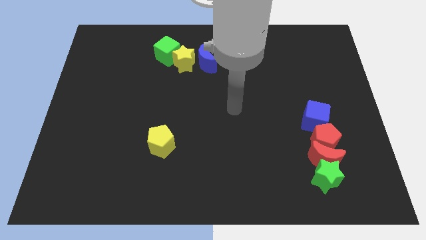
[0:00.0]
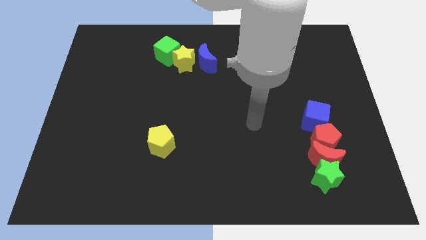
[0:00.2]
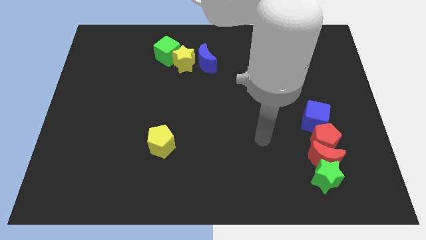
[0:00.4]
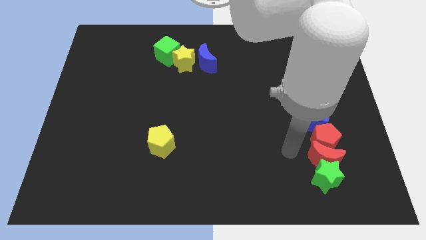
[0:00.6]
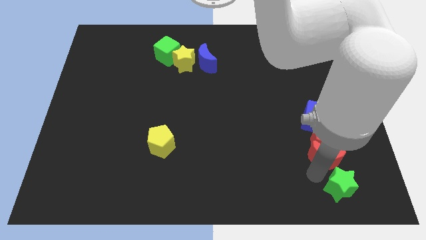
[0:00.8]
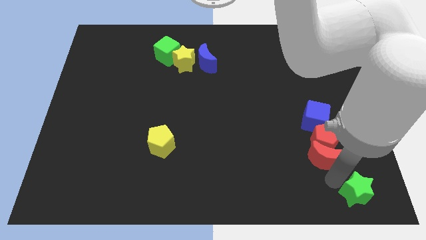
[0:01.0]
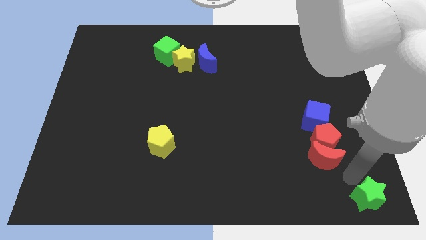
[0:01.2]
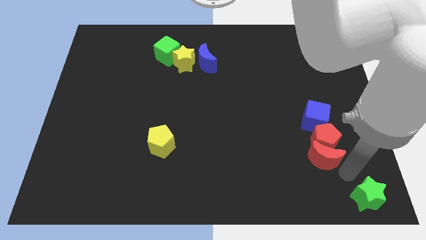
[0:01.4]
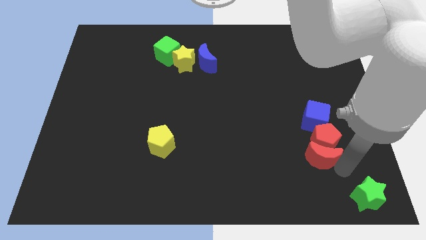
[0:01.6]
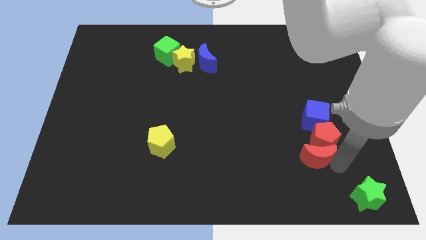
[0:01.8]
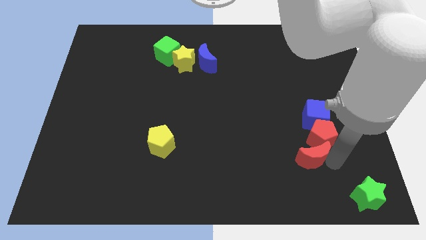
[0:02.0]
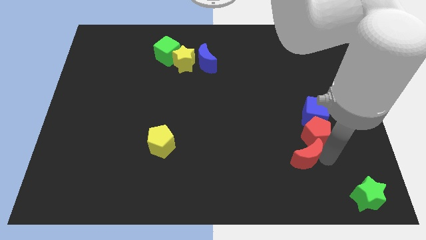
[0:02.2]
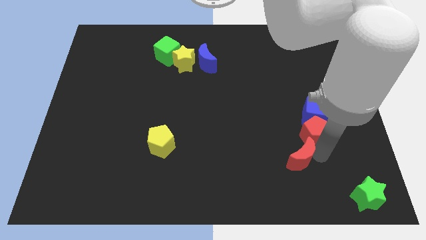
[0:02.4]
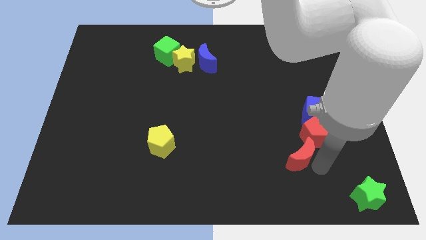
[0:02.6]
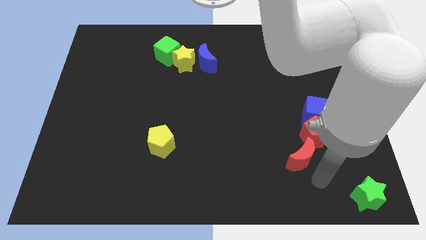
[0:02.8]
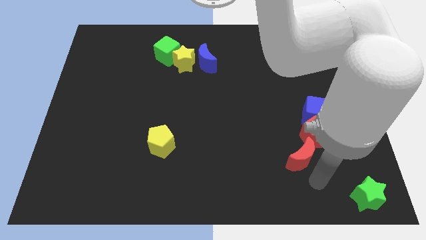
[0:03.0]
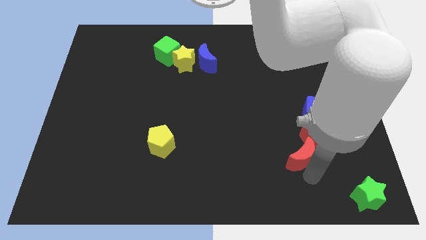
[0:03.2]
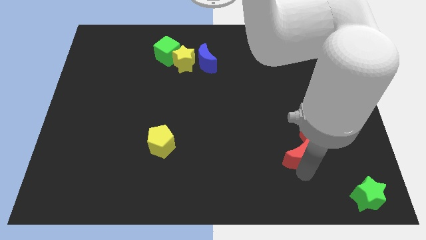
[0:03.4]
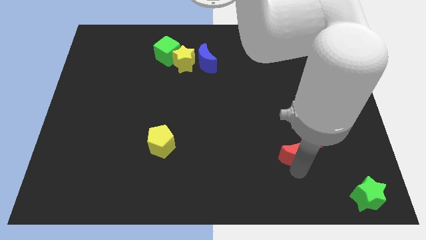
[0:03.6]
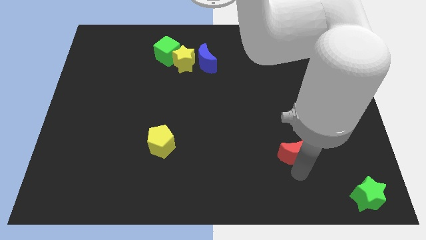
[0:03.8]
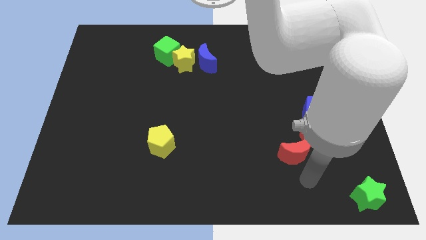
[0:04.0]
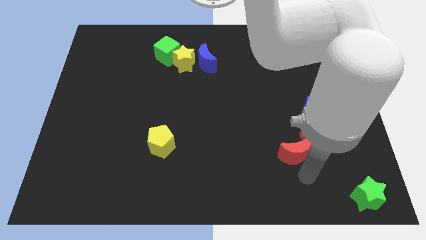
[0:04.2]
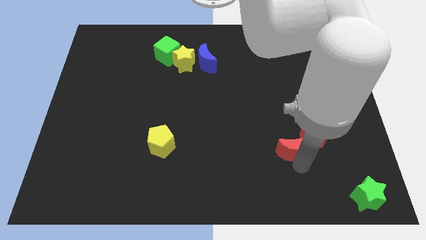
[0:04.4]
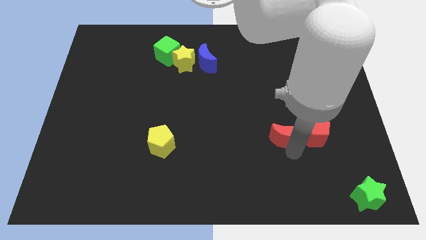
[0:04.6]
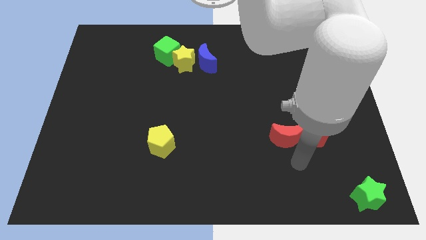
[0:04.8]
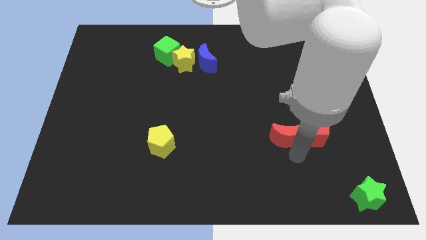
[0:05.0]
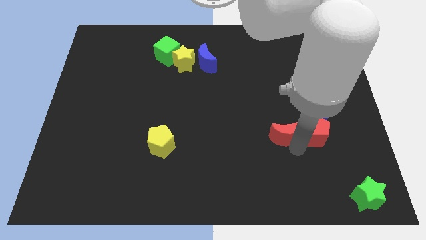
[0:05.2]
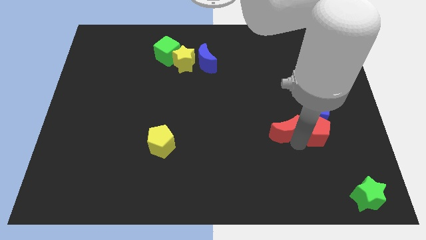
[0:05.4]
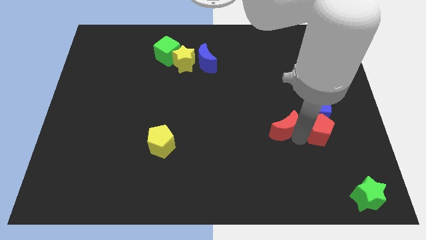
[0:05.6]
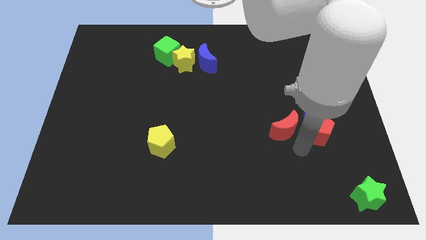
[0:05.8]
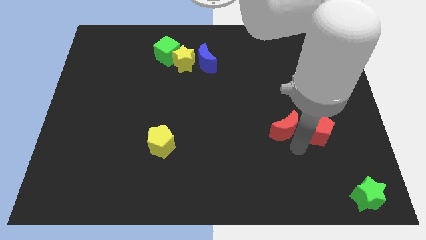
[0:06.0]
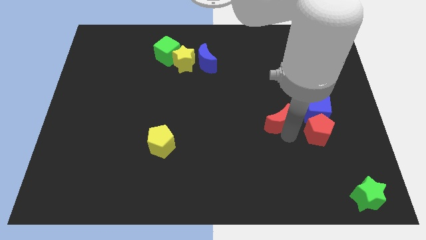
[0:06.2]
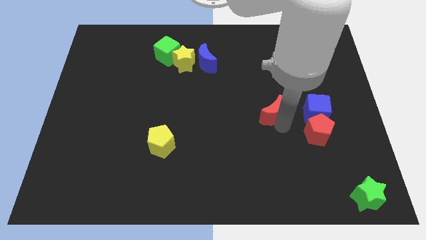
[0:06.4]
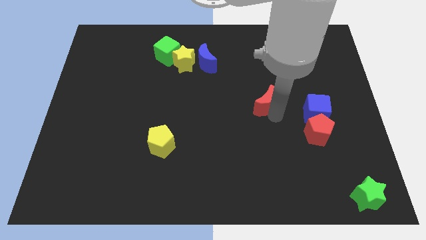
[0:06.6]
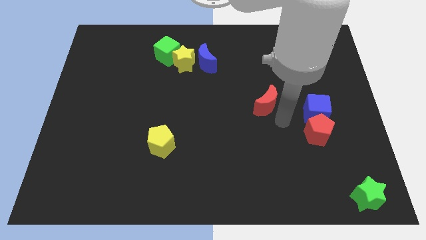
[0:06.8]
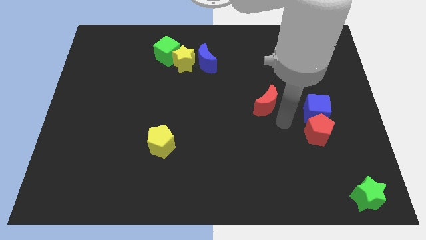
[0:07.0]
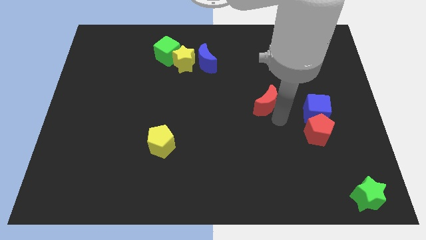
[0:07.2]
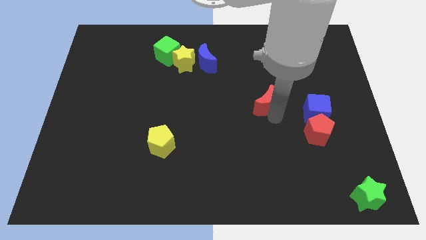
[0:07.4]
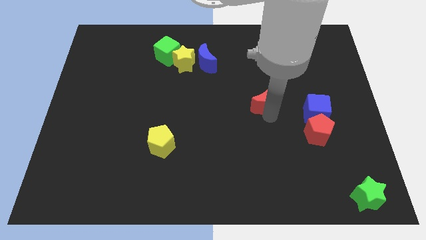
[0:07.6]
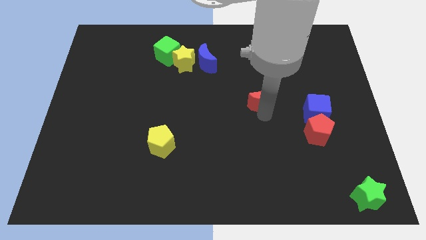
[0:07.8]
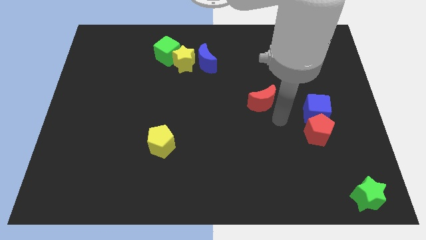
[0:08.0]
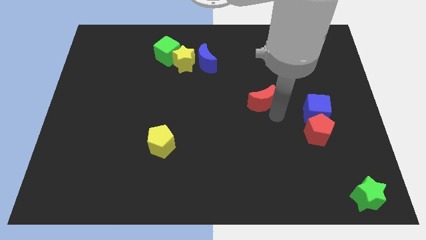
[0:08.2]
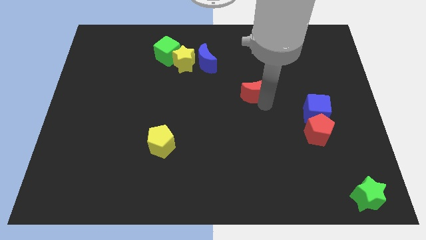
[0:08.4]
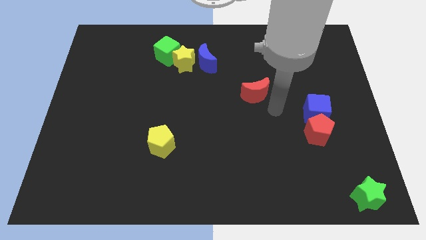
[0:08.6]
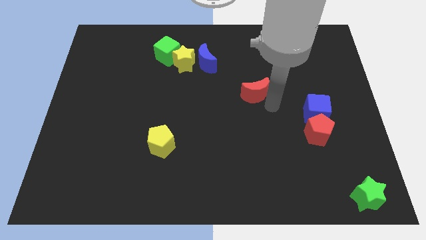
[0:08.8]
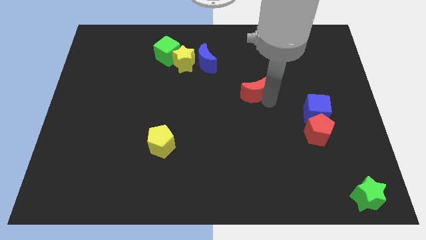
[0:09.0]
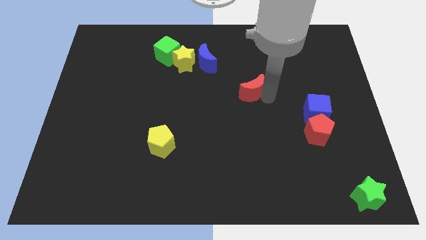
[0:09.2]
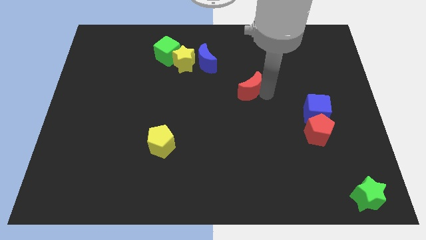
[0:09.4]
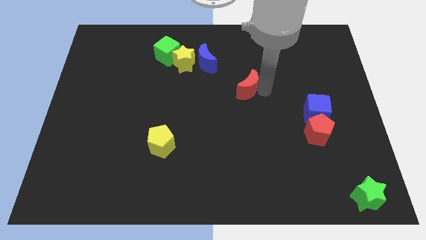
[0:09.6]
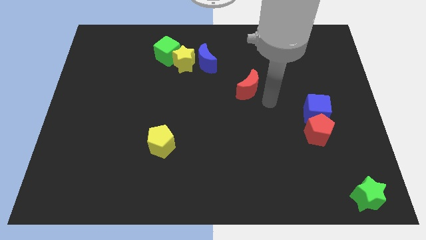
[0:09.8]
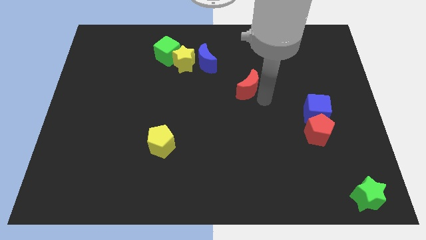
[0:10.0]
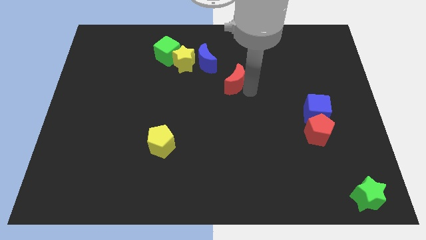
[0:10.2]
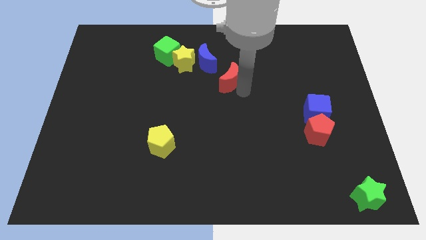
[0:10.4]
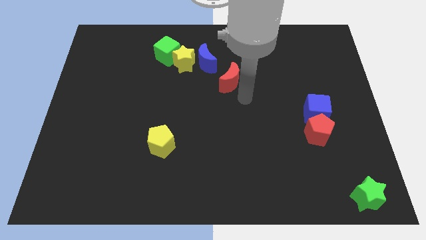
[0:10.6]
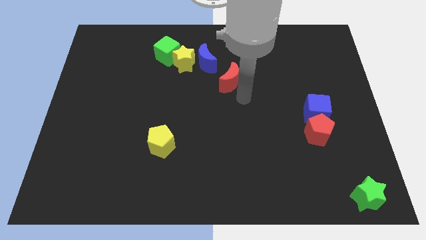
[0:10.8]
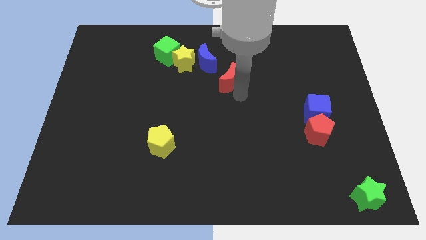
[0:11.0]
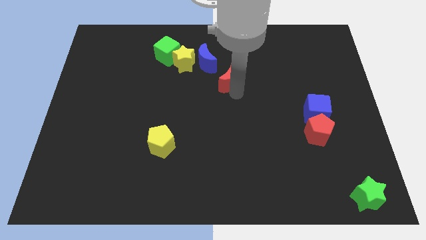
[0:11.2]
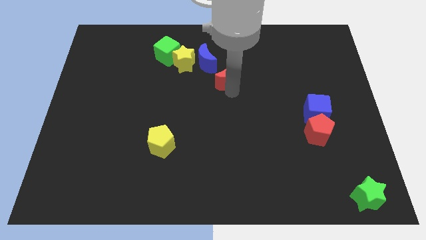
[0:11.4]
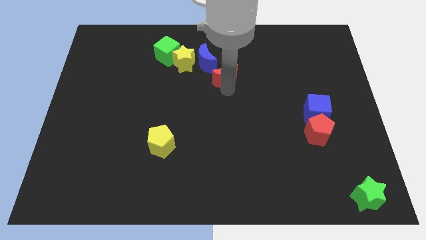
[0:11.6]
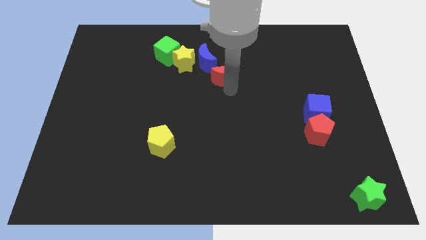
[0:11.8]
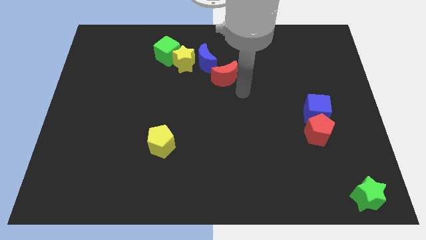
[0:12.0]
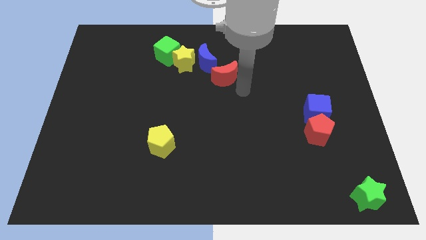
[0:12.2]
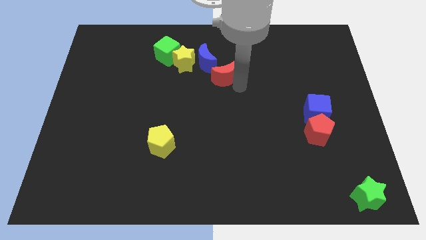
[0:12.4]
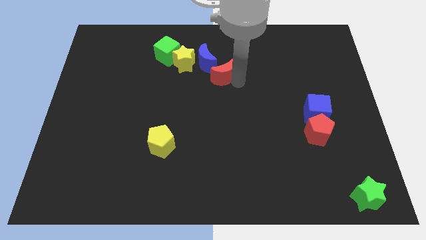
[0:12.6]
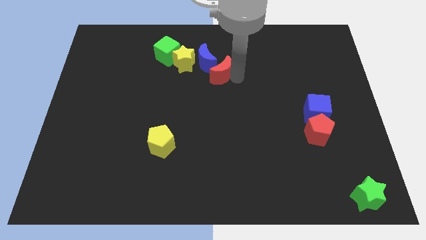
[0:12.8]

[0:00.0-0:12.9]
push the red moon to the blue moon
